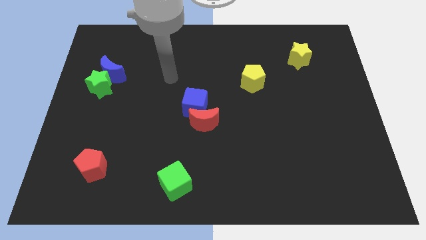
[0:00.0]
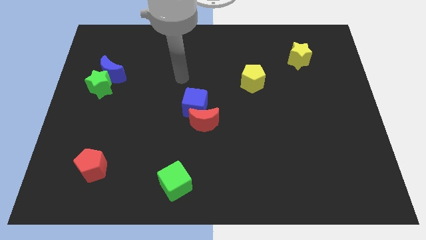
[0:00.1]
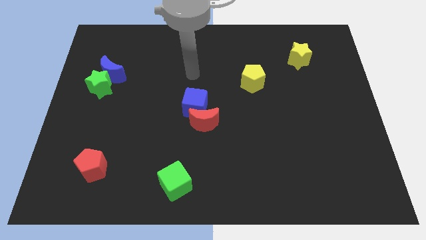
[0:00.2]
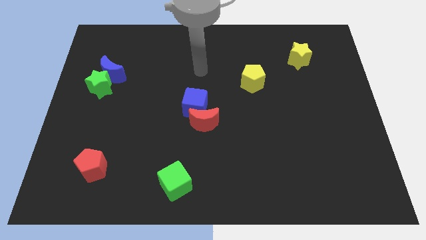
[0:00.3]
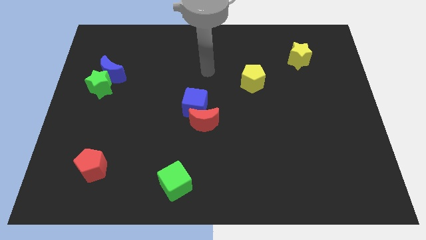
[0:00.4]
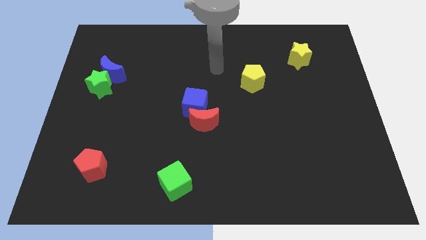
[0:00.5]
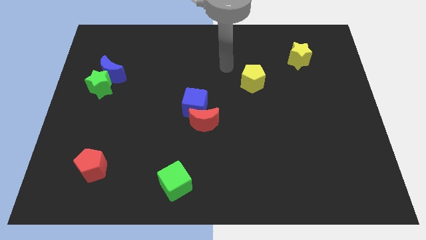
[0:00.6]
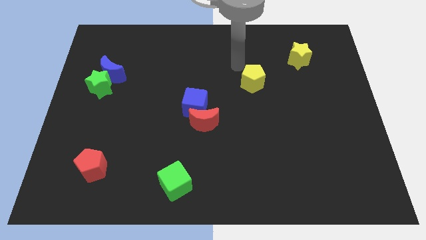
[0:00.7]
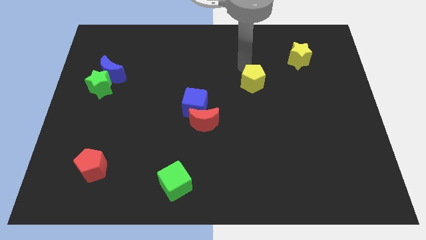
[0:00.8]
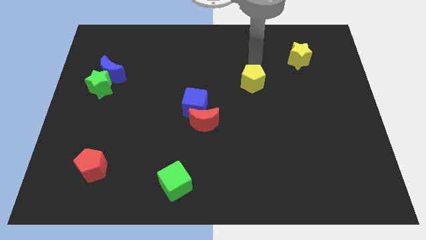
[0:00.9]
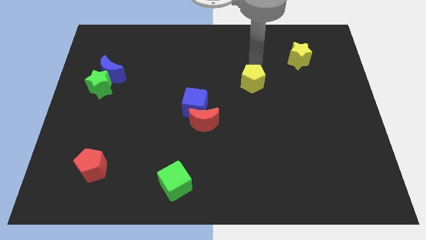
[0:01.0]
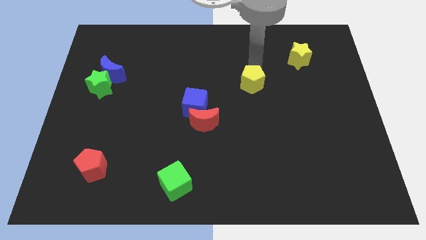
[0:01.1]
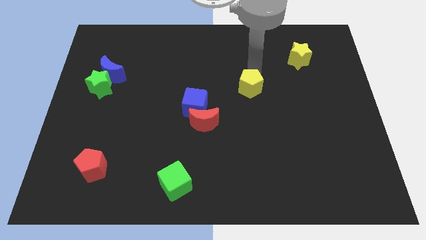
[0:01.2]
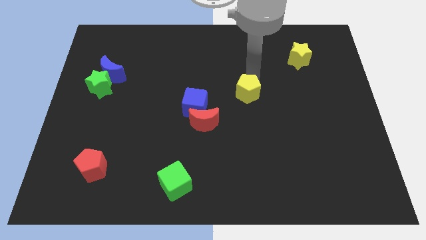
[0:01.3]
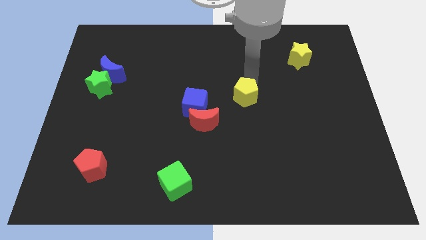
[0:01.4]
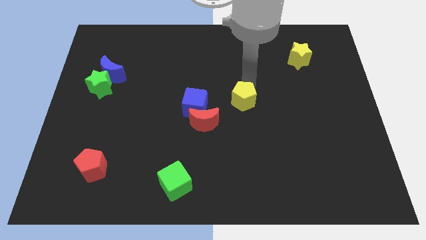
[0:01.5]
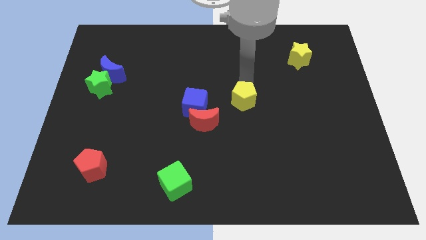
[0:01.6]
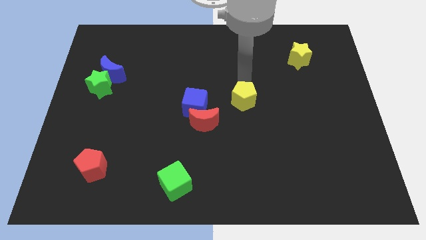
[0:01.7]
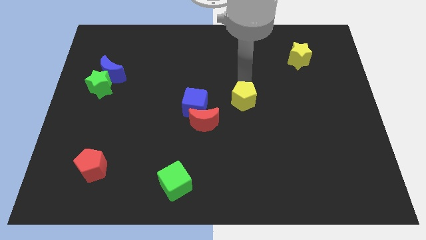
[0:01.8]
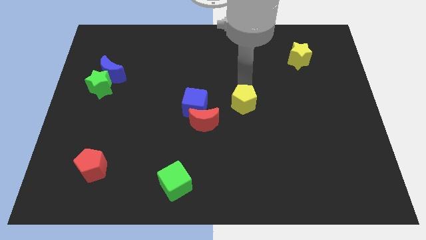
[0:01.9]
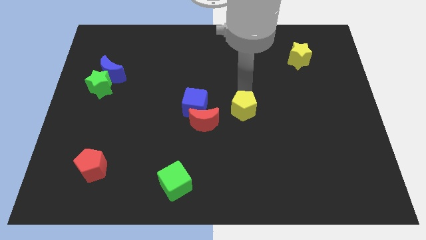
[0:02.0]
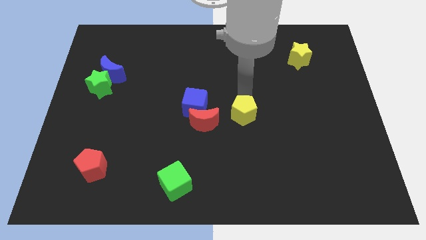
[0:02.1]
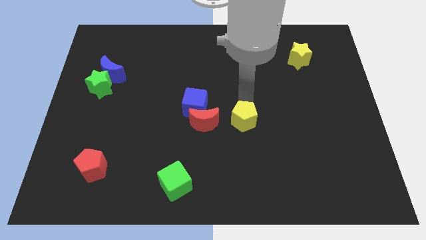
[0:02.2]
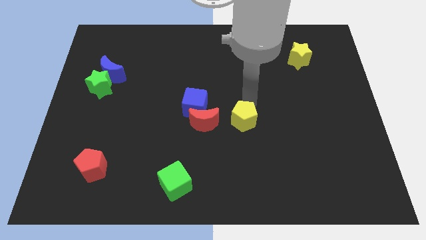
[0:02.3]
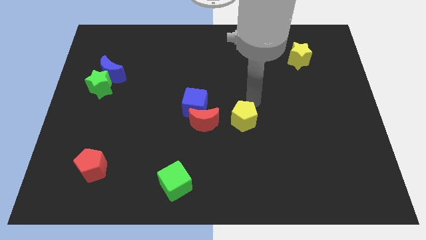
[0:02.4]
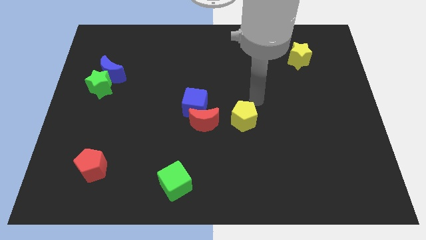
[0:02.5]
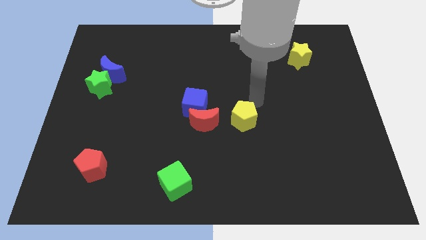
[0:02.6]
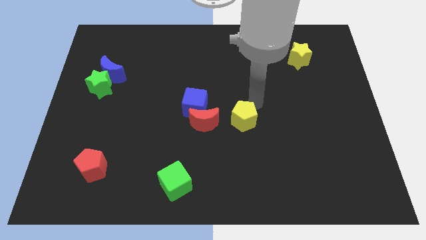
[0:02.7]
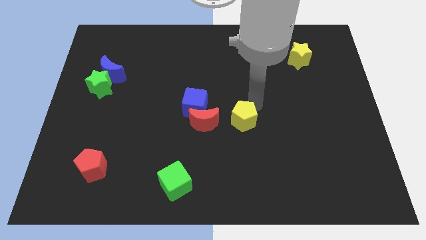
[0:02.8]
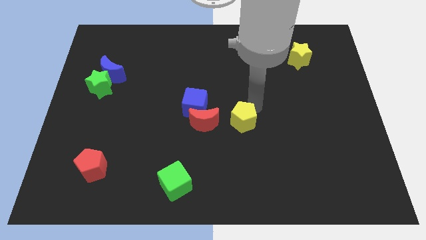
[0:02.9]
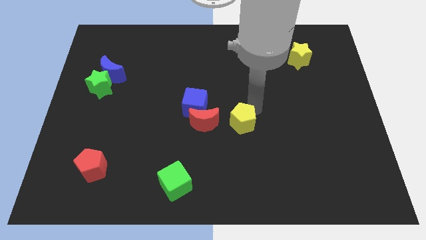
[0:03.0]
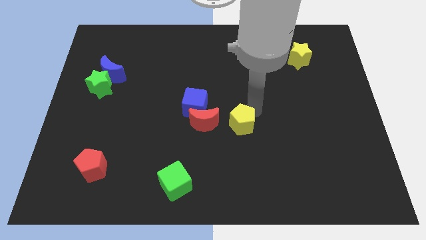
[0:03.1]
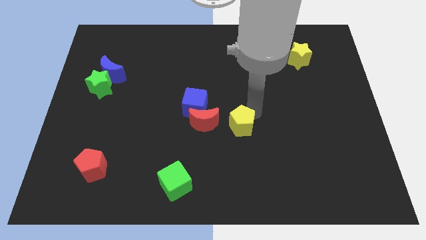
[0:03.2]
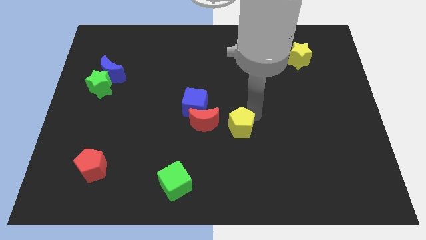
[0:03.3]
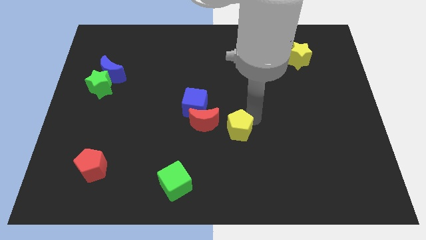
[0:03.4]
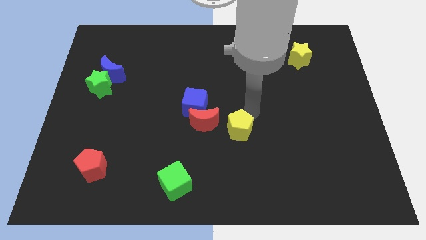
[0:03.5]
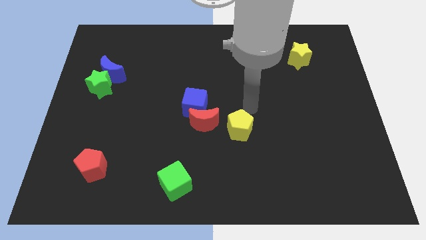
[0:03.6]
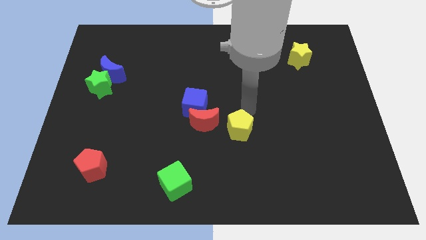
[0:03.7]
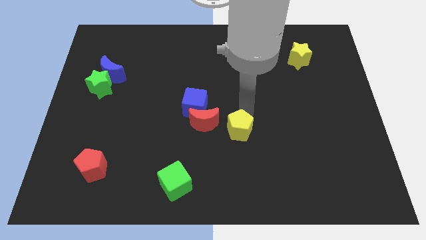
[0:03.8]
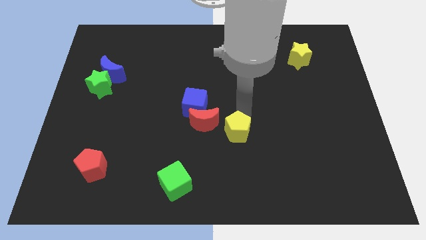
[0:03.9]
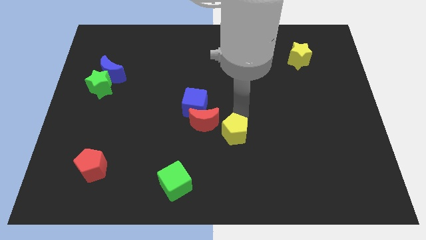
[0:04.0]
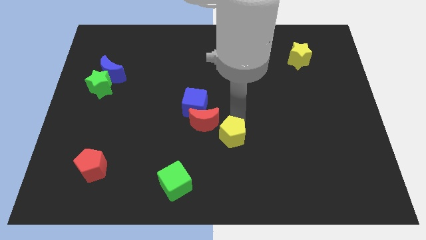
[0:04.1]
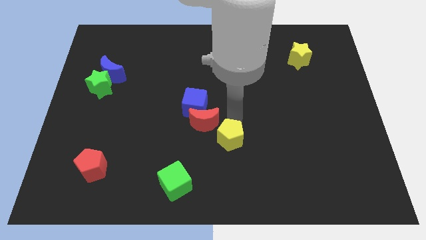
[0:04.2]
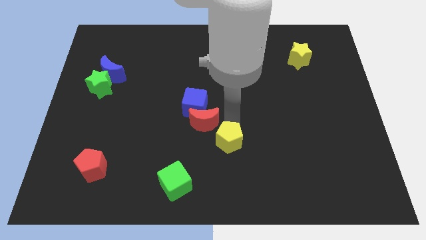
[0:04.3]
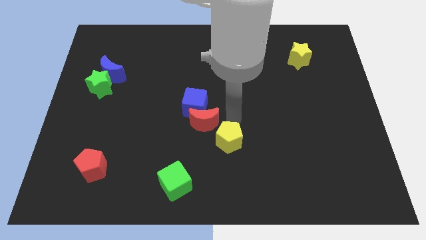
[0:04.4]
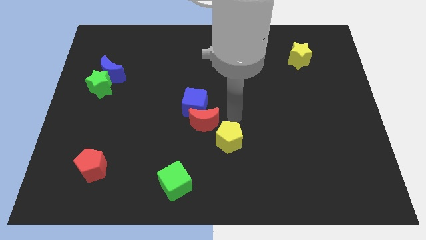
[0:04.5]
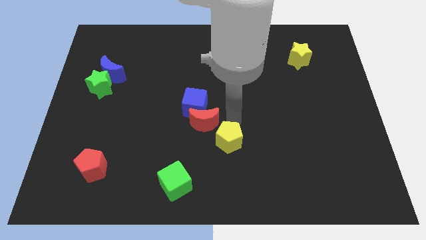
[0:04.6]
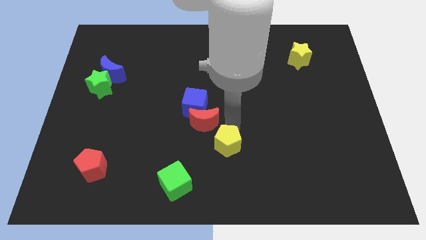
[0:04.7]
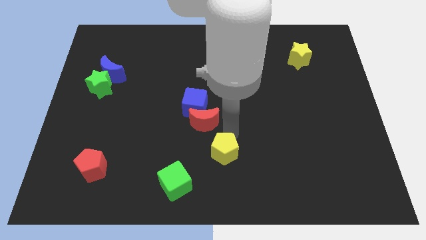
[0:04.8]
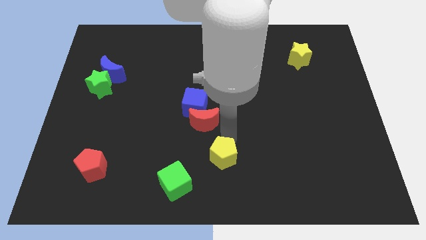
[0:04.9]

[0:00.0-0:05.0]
put the yellow pentagon to the bottom

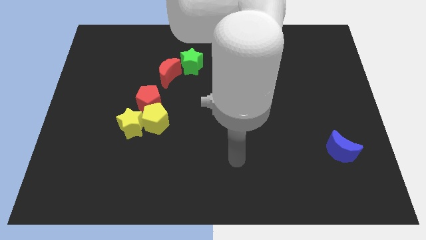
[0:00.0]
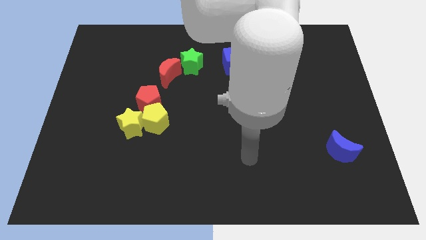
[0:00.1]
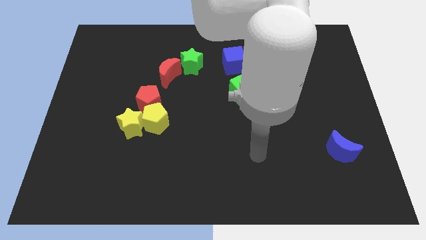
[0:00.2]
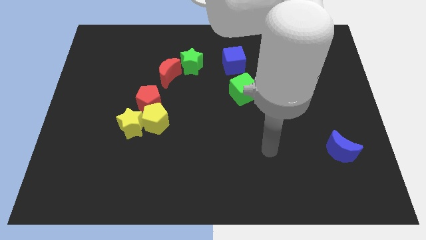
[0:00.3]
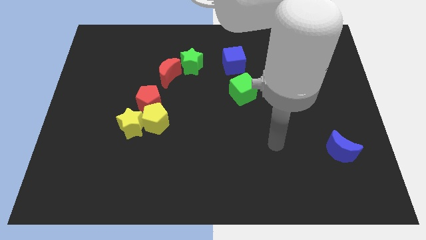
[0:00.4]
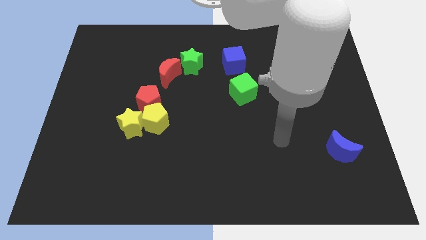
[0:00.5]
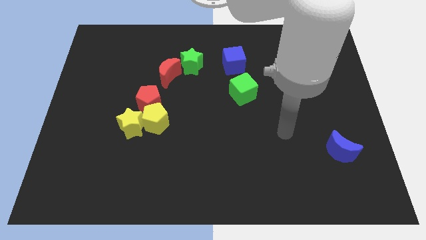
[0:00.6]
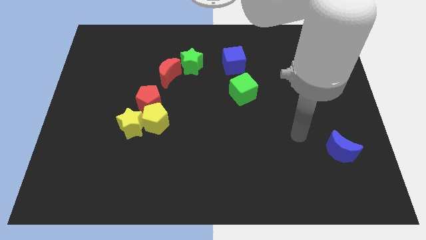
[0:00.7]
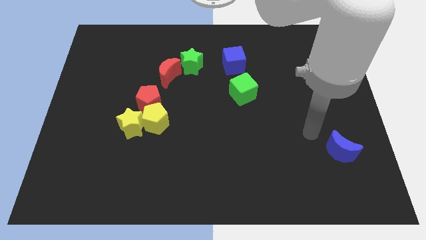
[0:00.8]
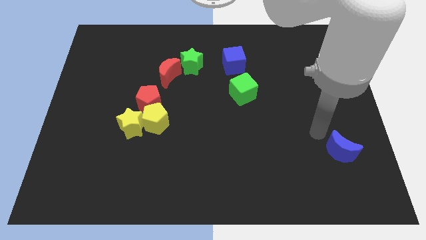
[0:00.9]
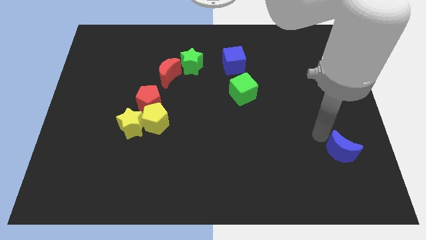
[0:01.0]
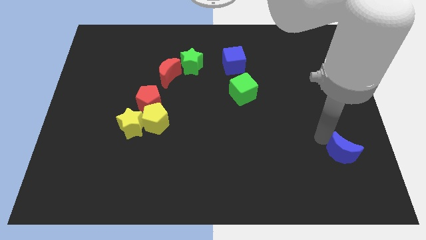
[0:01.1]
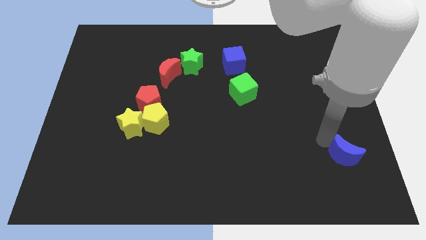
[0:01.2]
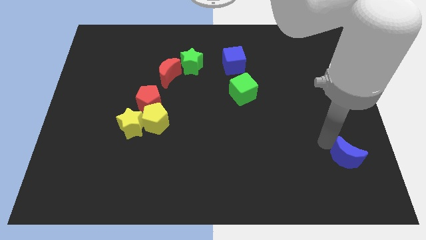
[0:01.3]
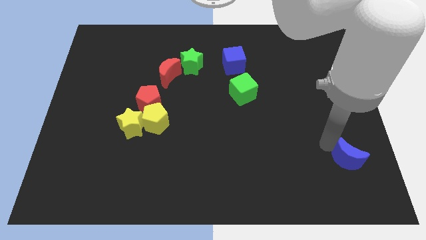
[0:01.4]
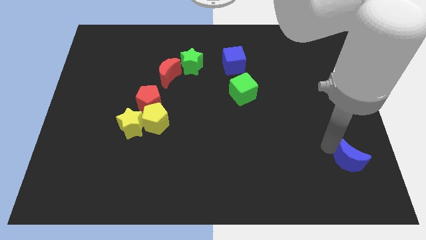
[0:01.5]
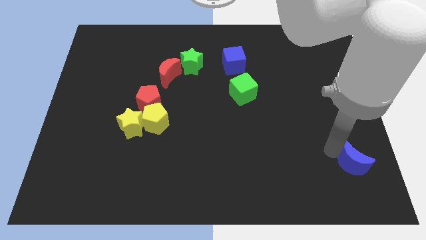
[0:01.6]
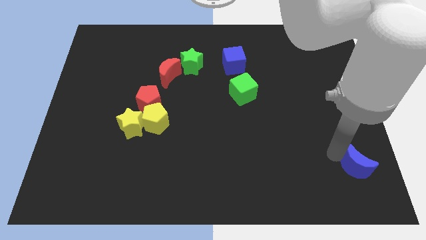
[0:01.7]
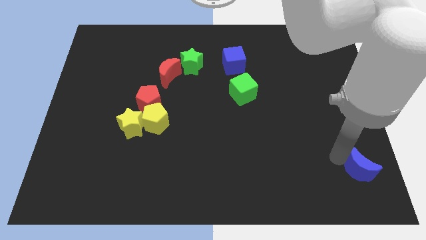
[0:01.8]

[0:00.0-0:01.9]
slide the blue moon to the lower right corner
